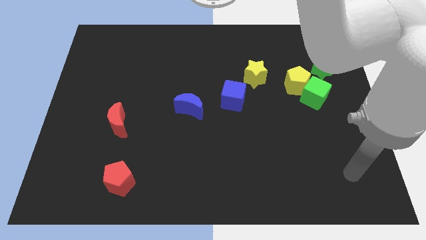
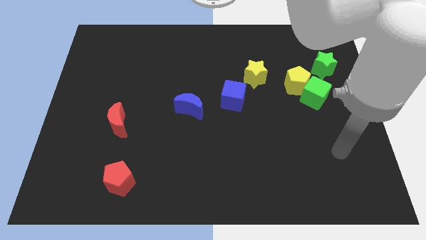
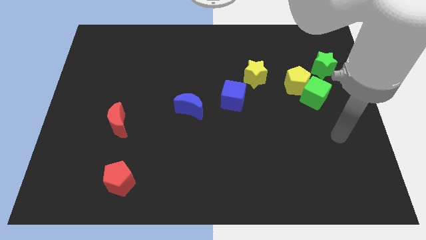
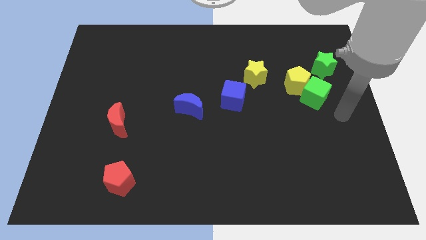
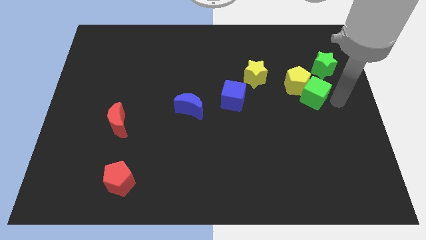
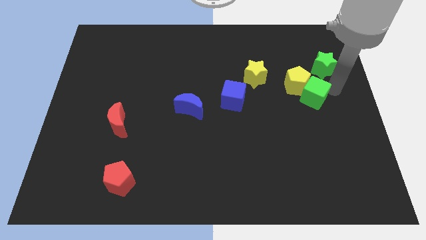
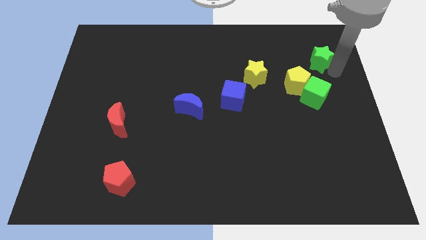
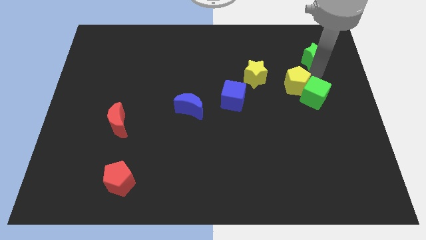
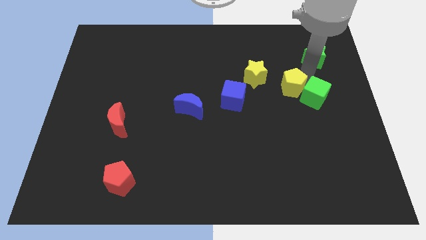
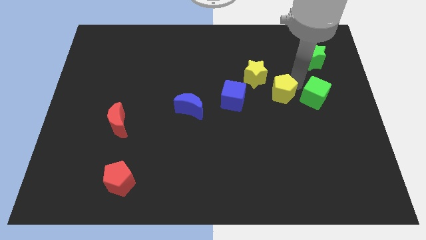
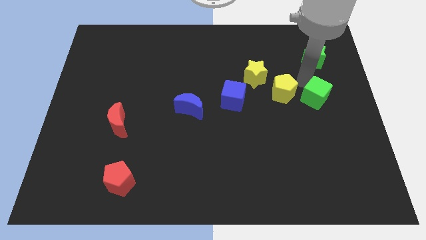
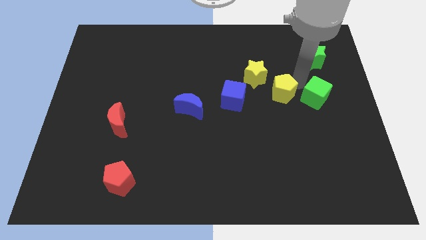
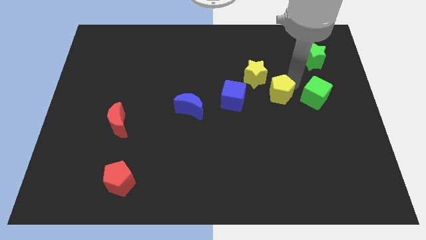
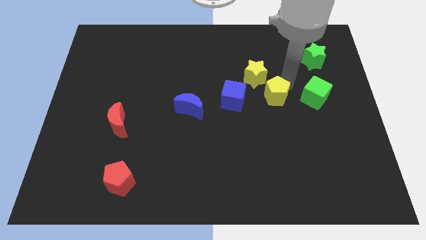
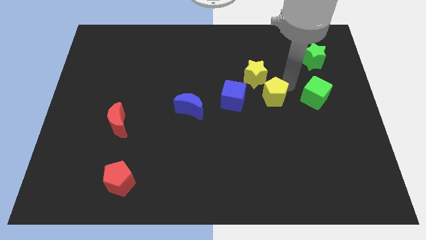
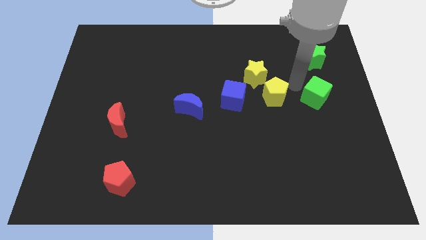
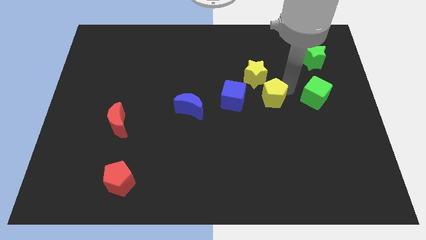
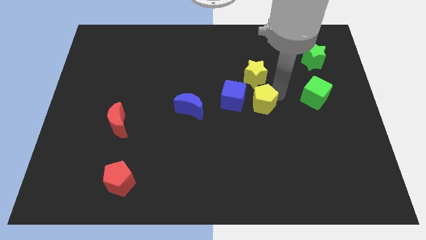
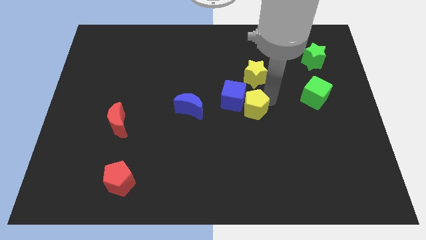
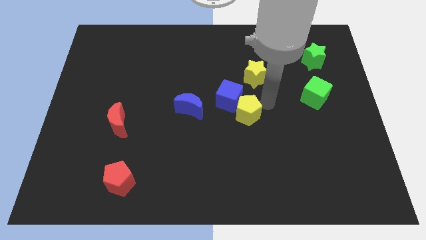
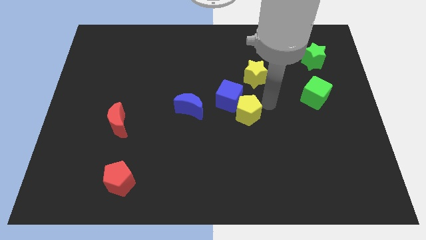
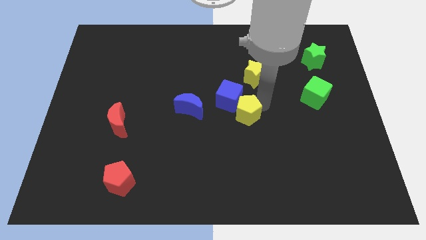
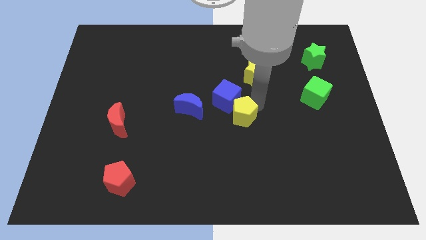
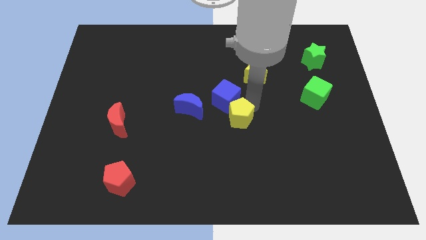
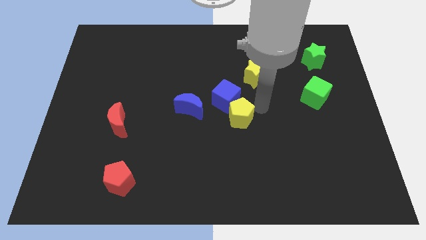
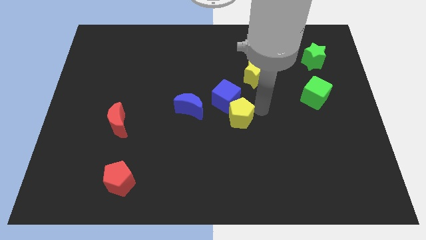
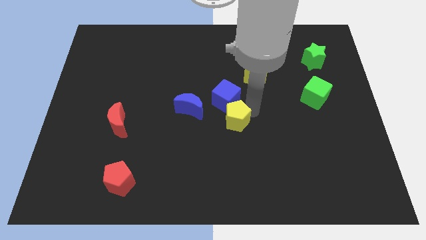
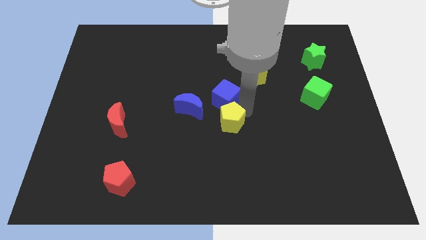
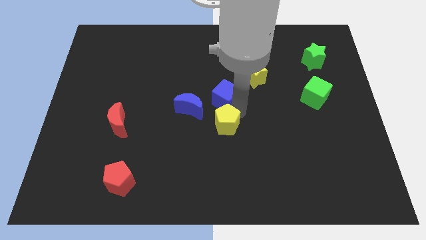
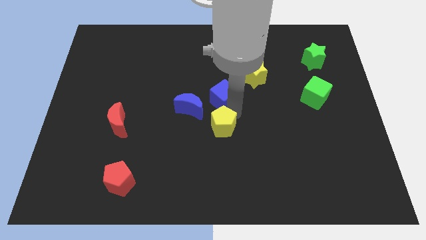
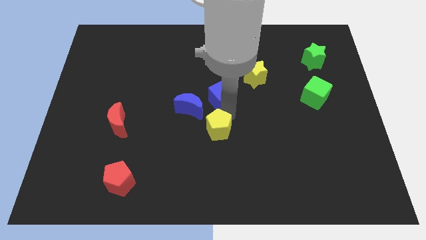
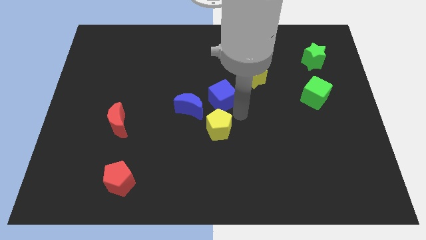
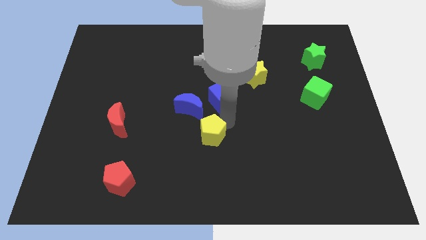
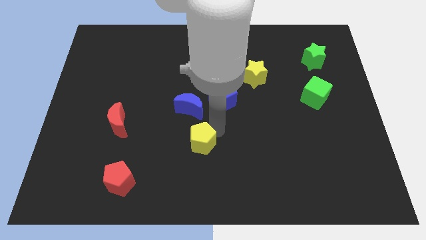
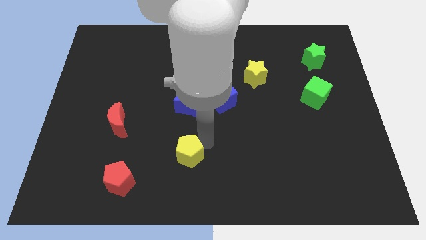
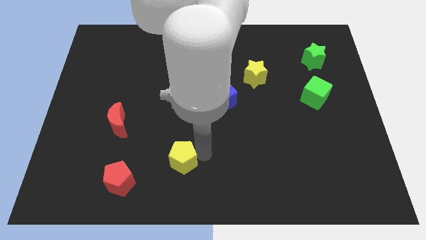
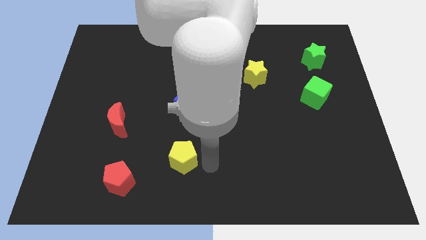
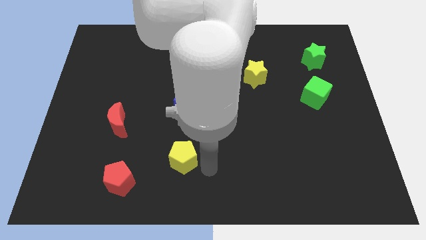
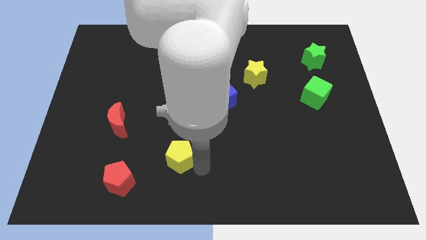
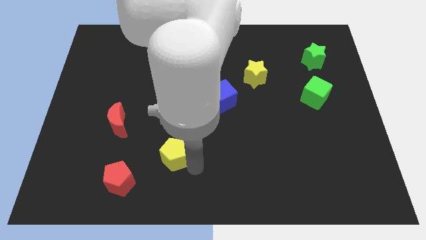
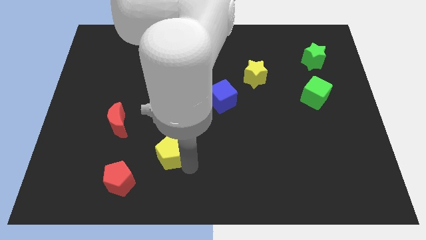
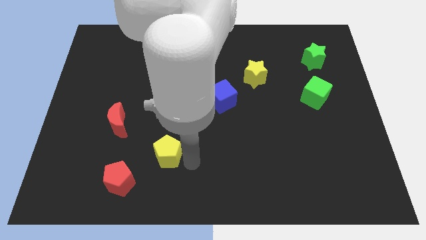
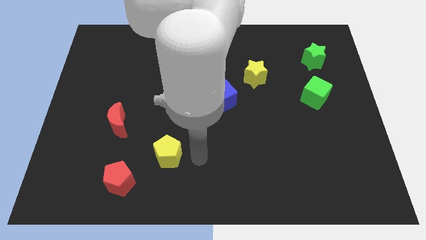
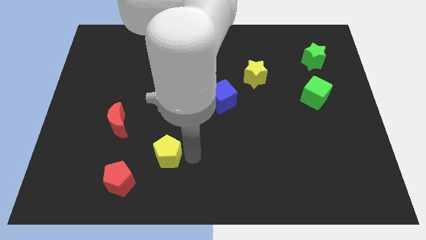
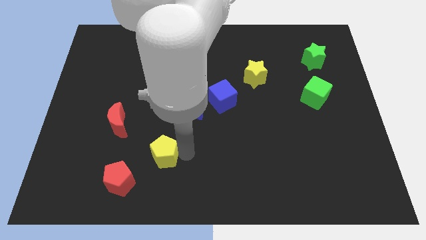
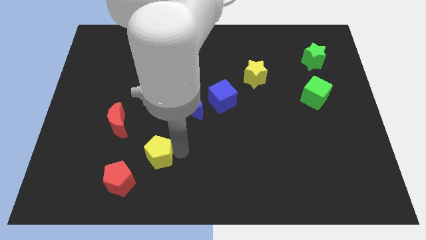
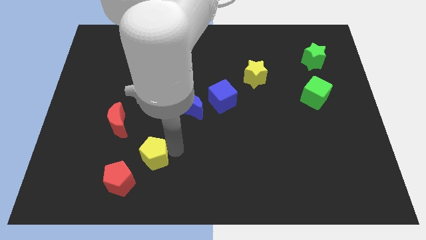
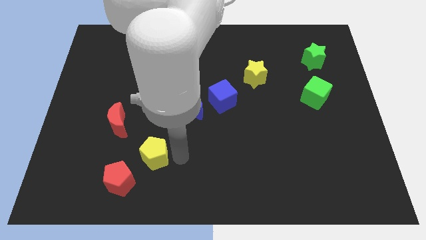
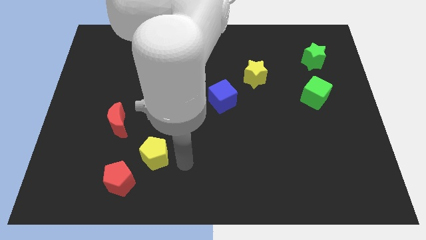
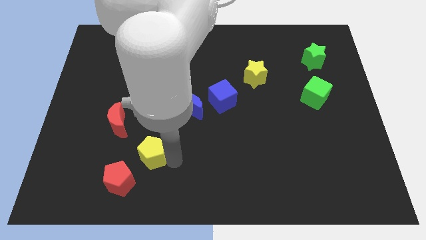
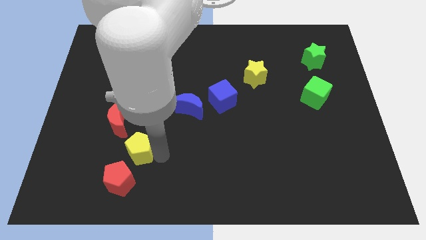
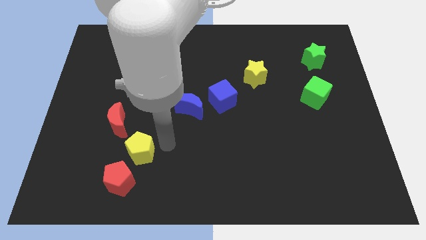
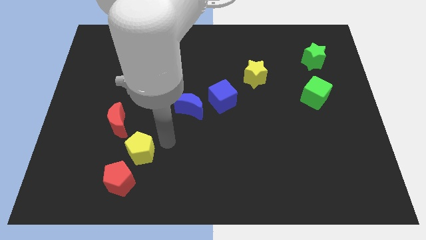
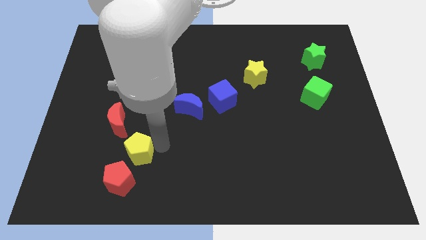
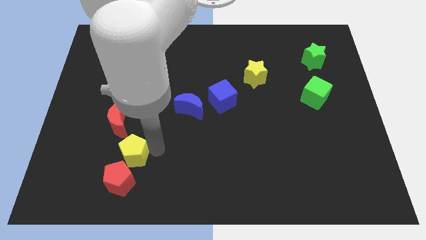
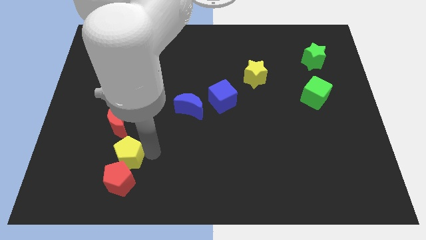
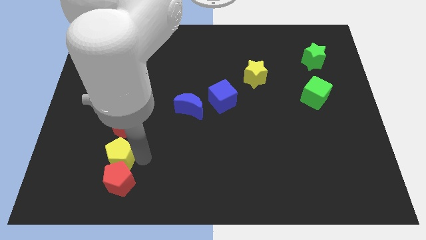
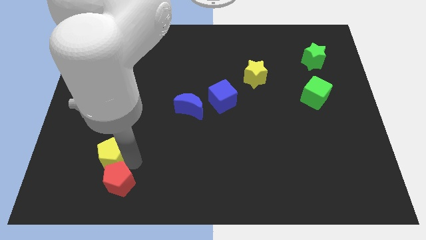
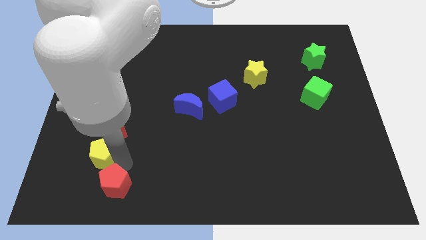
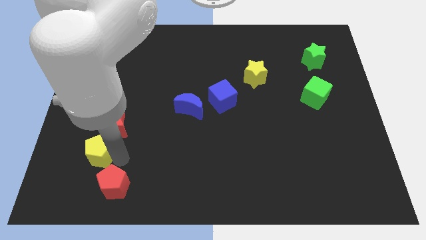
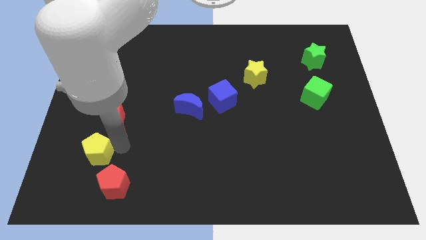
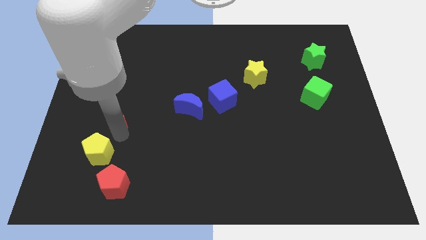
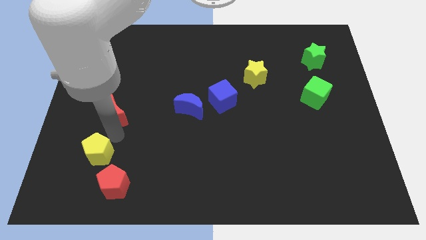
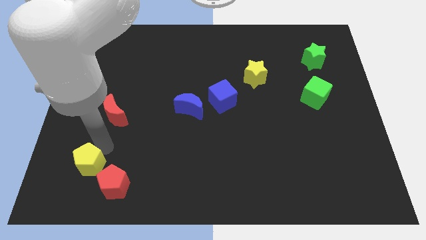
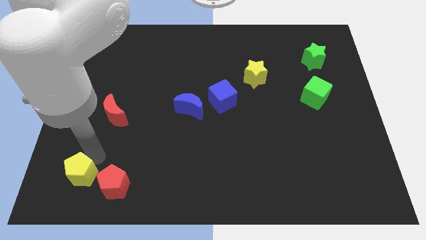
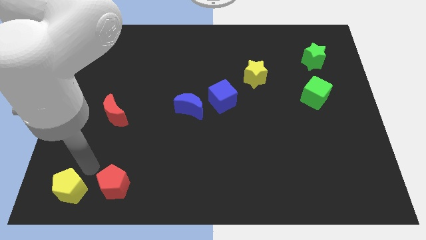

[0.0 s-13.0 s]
move the yellow pentagon to the lower left corner
